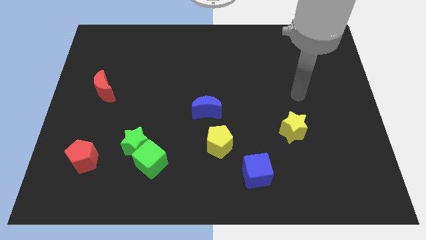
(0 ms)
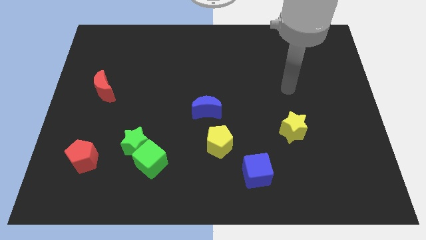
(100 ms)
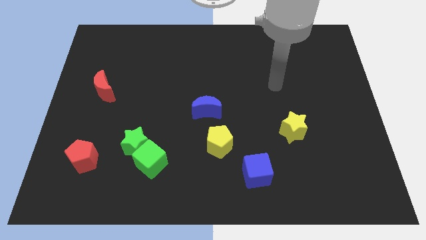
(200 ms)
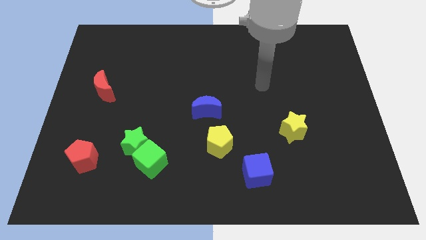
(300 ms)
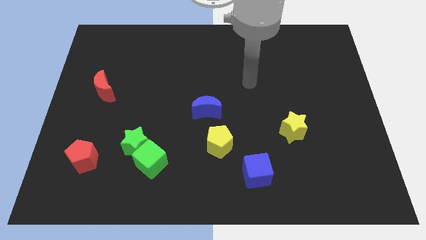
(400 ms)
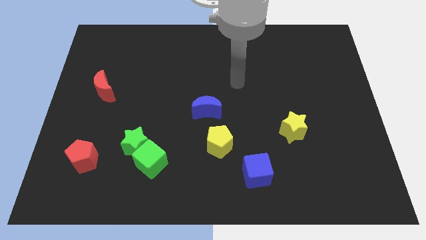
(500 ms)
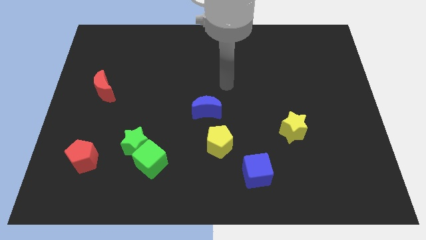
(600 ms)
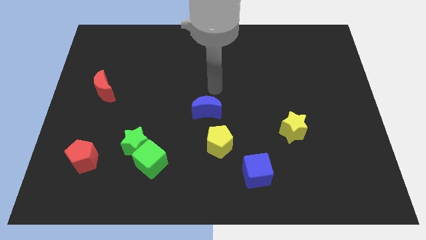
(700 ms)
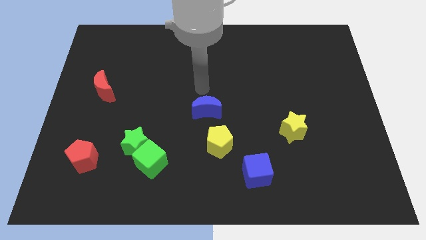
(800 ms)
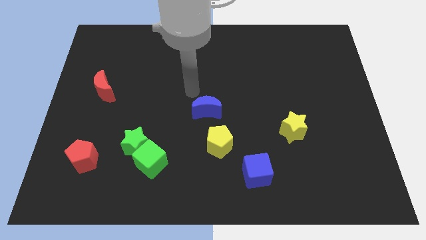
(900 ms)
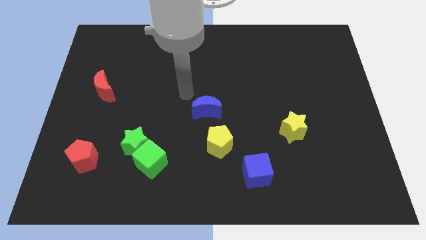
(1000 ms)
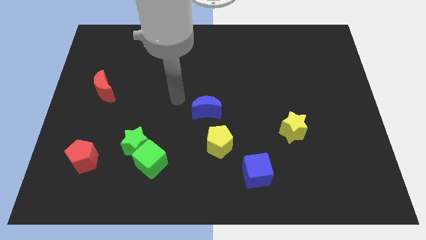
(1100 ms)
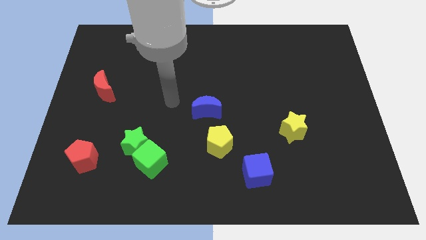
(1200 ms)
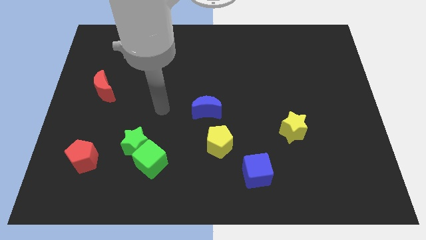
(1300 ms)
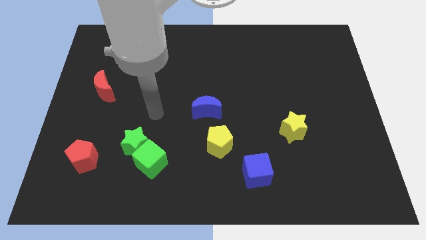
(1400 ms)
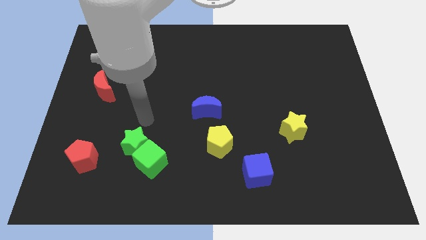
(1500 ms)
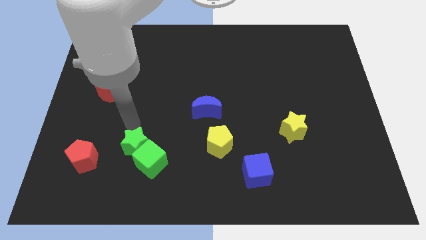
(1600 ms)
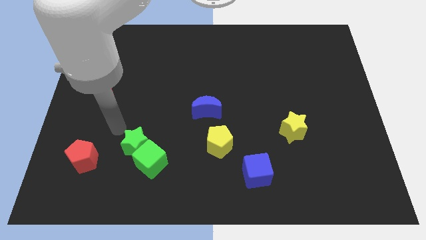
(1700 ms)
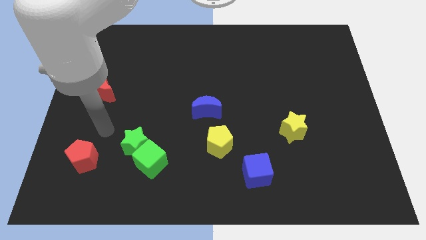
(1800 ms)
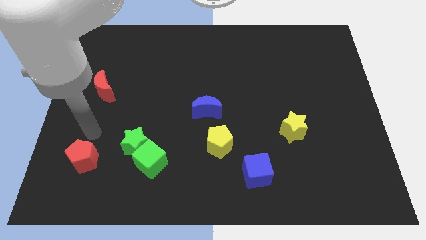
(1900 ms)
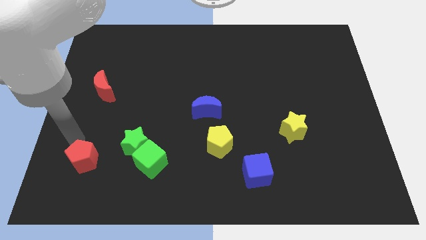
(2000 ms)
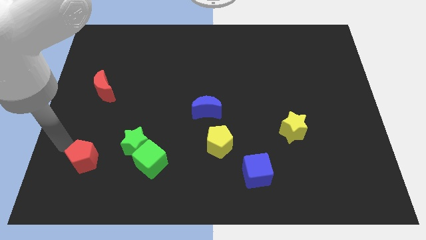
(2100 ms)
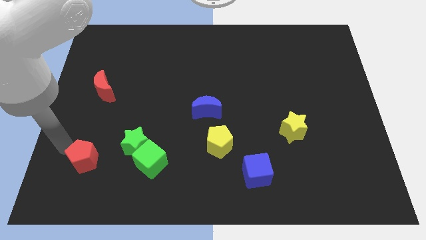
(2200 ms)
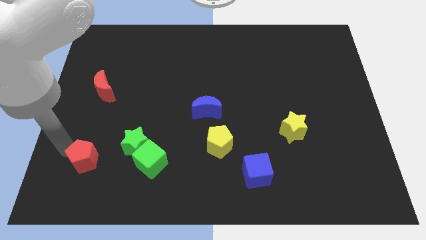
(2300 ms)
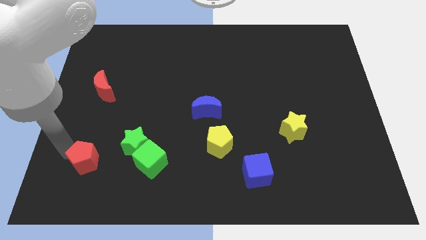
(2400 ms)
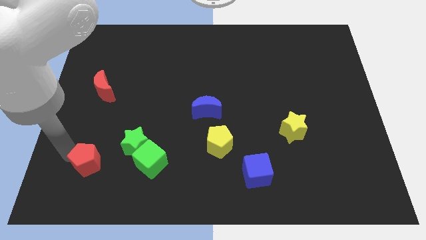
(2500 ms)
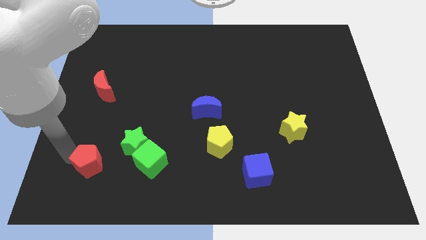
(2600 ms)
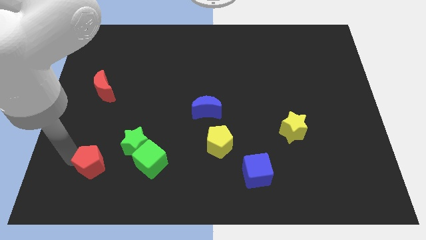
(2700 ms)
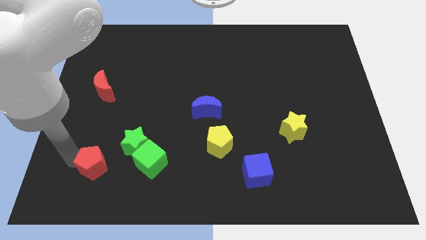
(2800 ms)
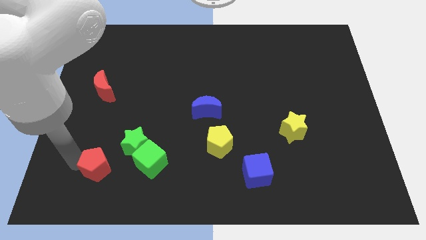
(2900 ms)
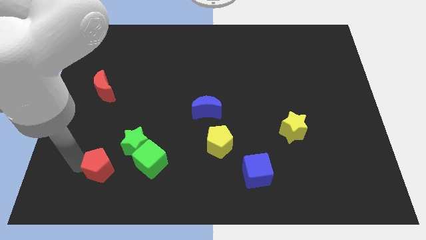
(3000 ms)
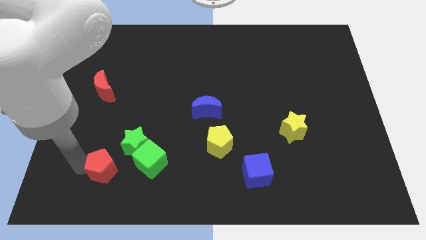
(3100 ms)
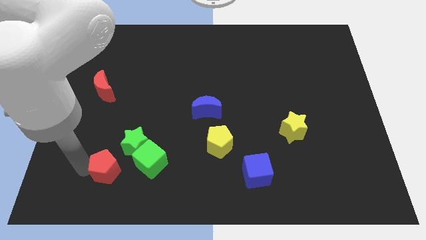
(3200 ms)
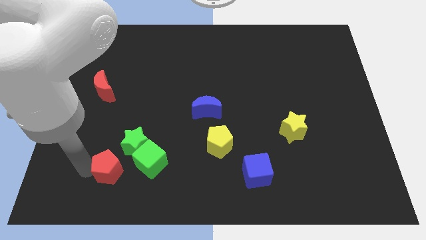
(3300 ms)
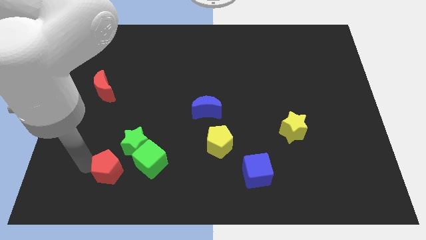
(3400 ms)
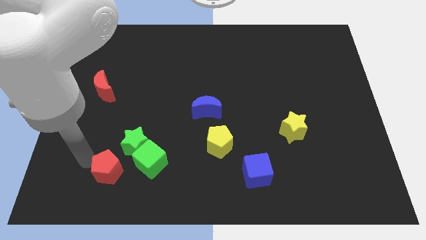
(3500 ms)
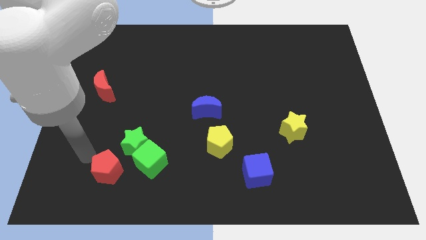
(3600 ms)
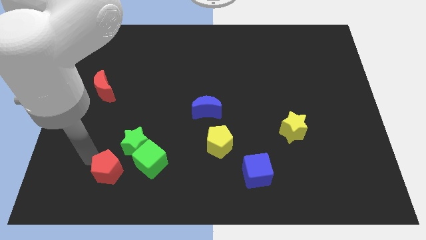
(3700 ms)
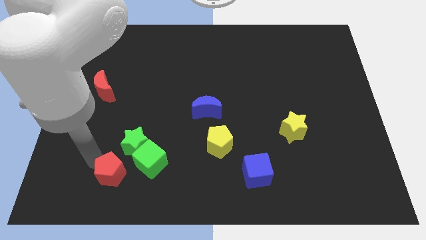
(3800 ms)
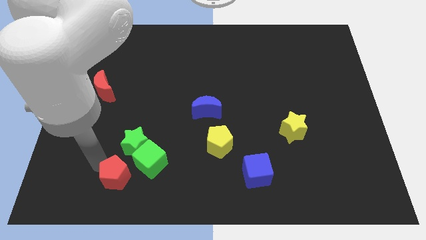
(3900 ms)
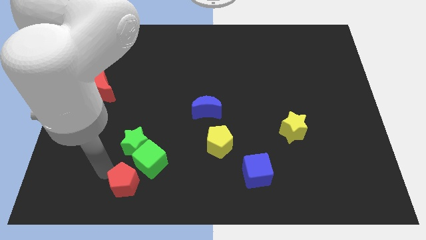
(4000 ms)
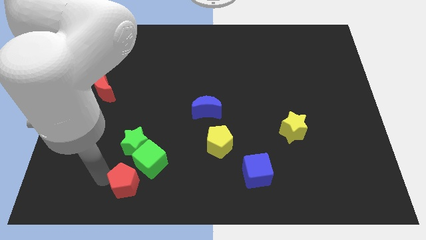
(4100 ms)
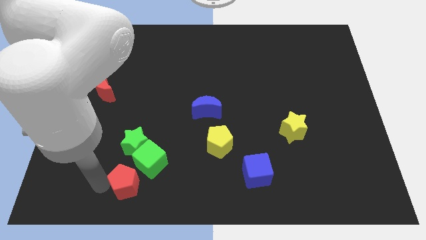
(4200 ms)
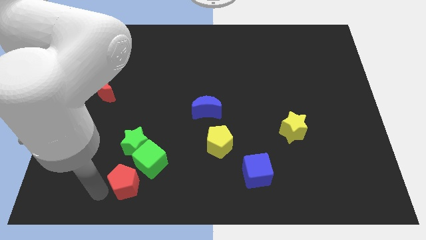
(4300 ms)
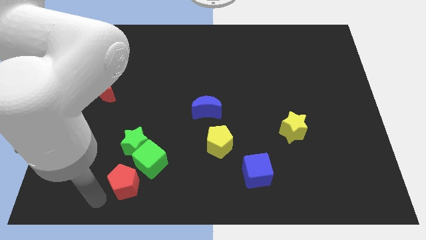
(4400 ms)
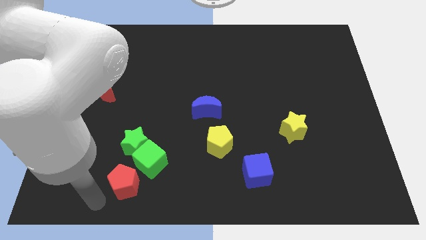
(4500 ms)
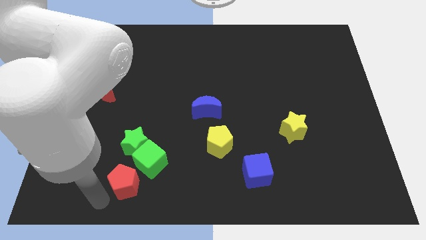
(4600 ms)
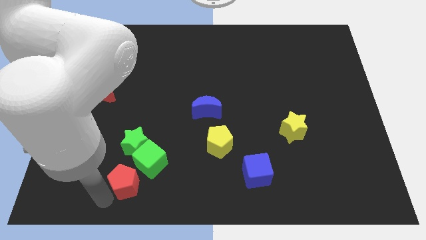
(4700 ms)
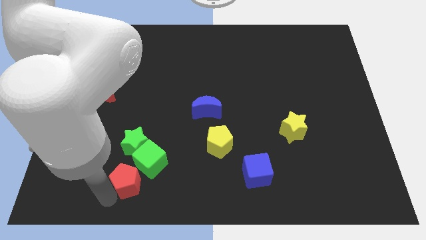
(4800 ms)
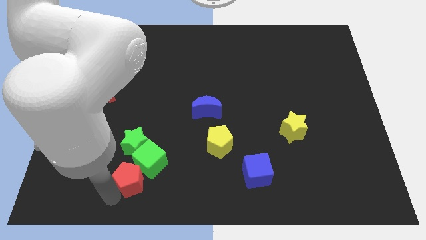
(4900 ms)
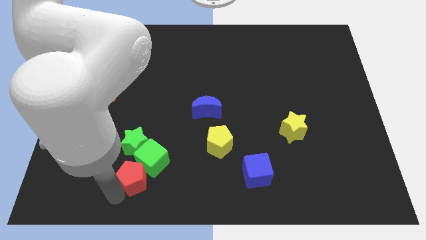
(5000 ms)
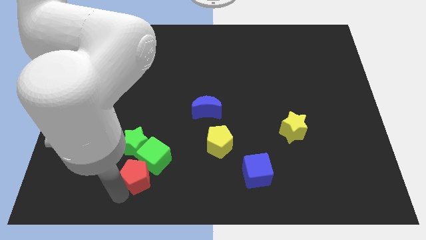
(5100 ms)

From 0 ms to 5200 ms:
put the red pentagon to the bottom right of the green star
